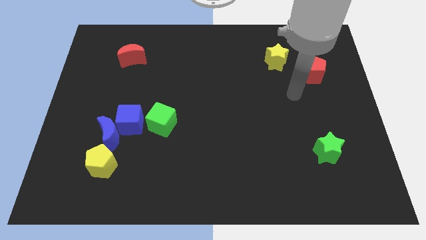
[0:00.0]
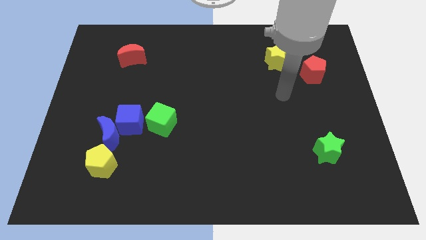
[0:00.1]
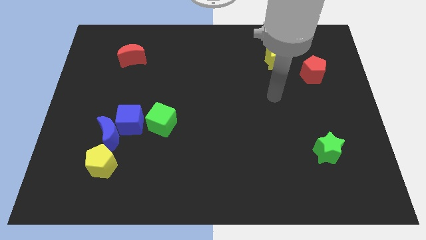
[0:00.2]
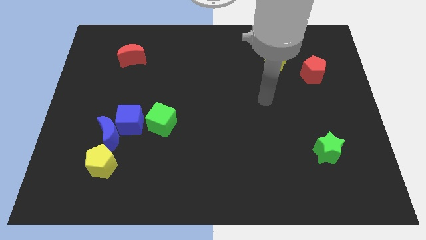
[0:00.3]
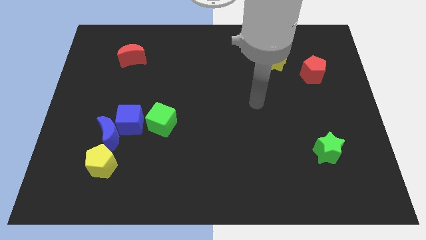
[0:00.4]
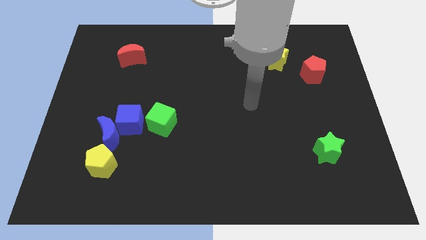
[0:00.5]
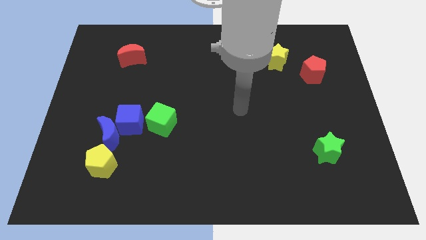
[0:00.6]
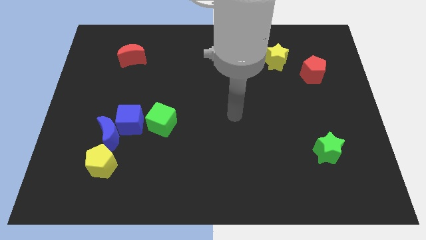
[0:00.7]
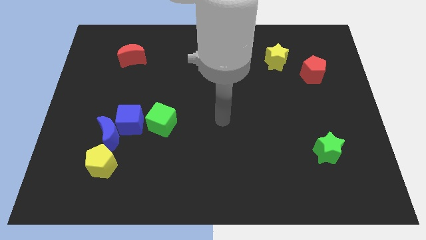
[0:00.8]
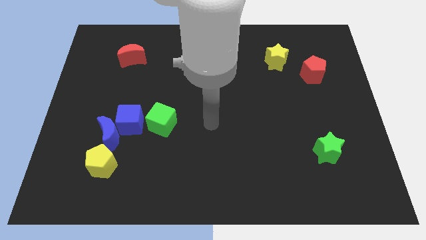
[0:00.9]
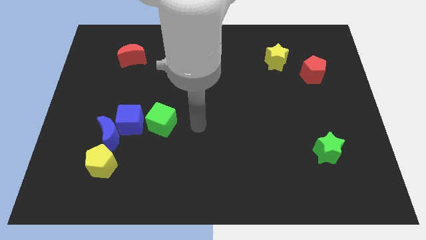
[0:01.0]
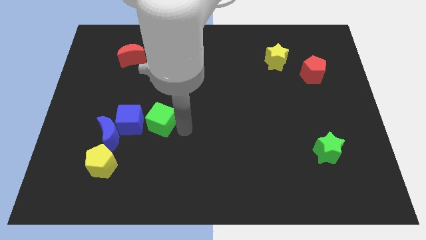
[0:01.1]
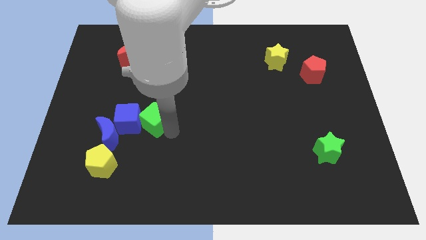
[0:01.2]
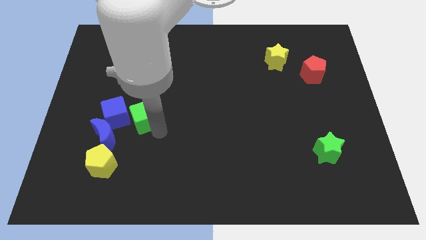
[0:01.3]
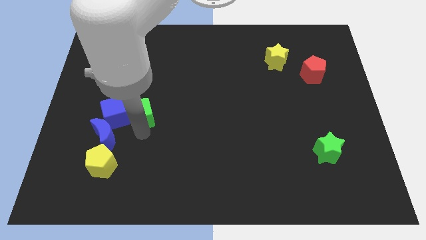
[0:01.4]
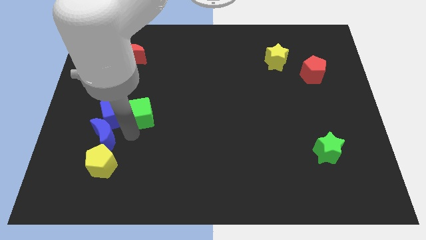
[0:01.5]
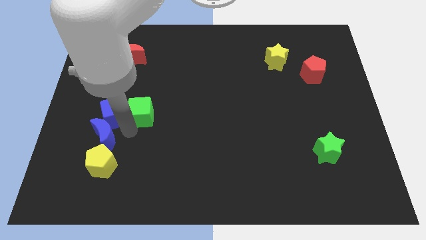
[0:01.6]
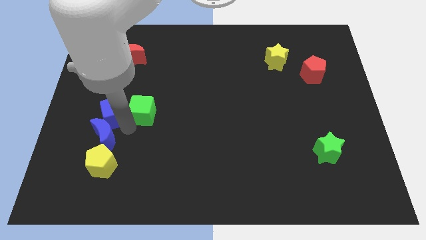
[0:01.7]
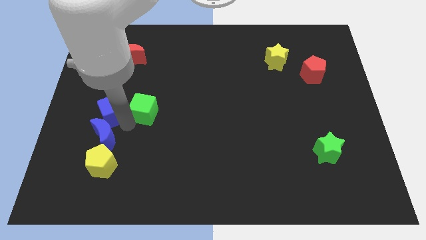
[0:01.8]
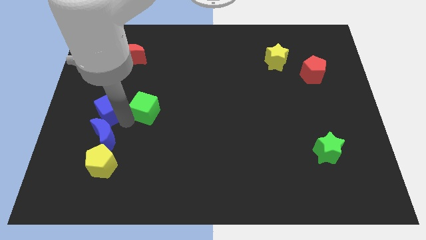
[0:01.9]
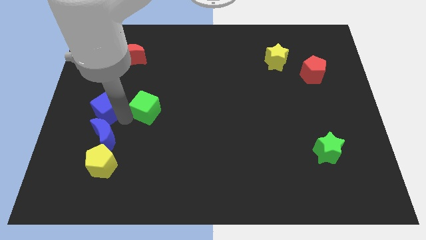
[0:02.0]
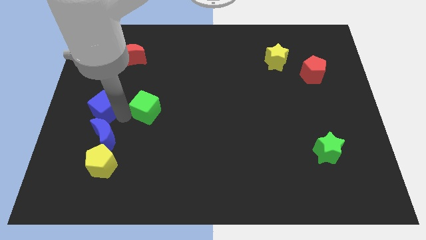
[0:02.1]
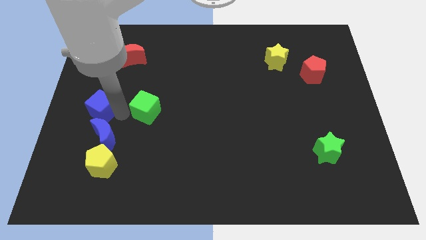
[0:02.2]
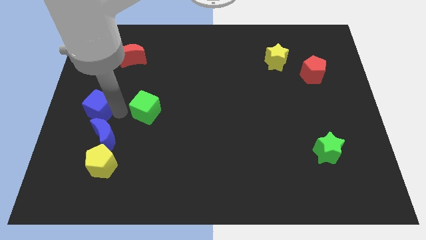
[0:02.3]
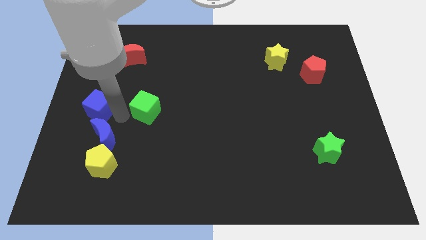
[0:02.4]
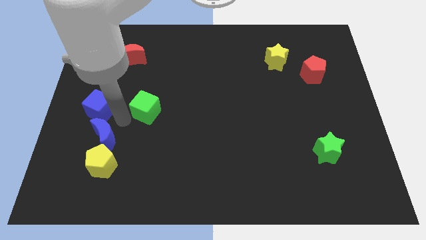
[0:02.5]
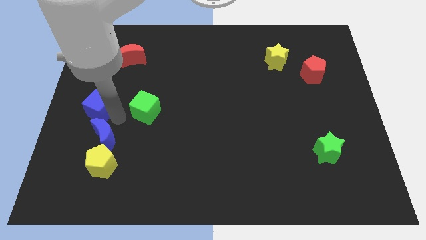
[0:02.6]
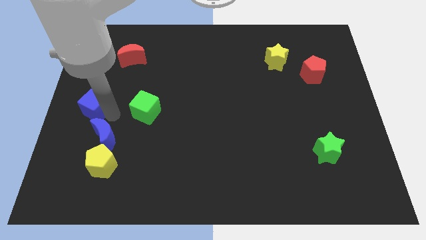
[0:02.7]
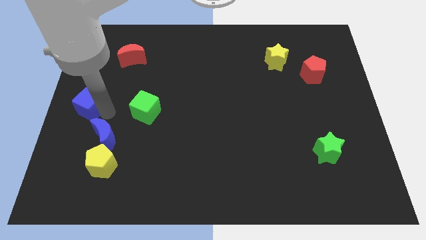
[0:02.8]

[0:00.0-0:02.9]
pull the blue cube apart from the blue moon and green cube

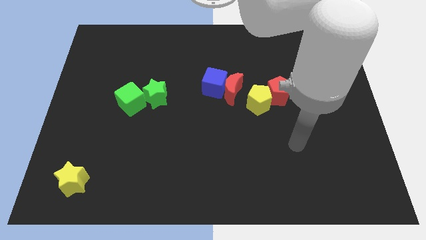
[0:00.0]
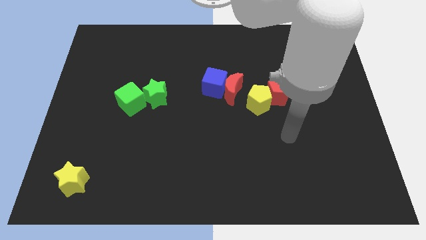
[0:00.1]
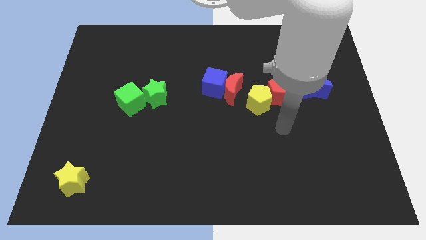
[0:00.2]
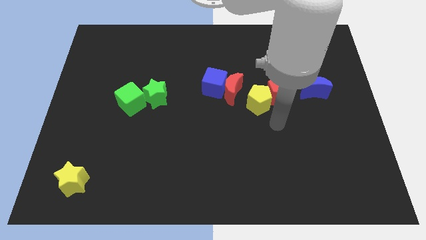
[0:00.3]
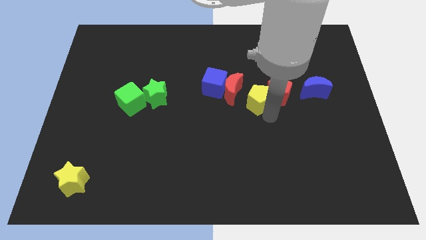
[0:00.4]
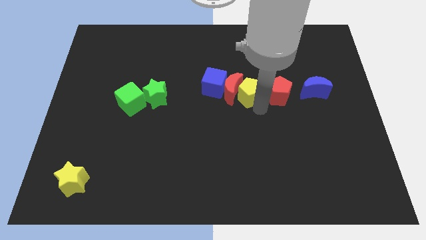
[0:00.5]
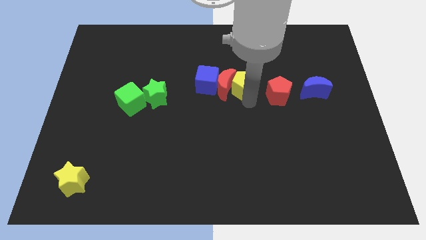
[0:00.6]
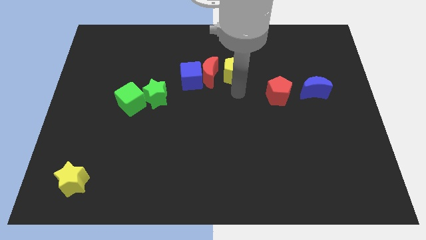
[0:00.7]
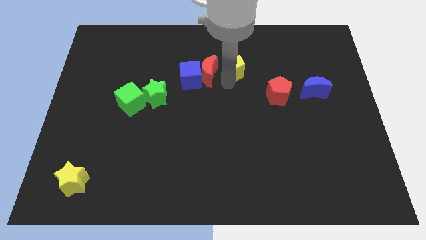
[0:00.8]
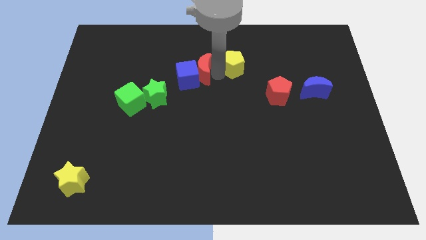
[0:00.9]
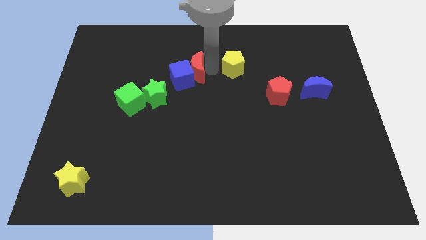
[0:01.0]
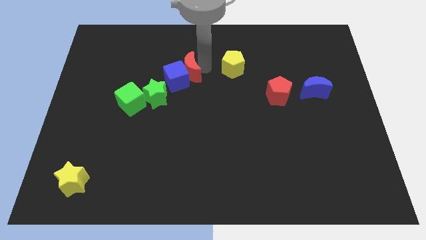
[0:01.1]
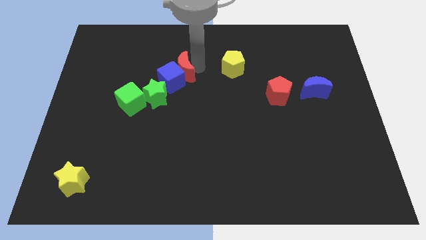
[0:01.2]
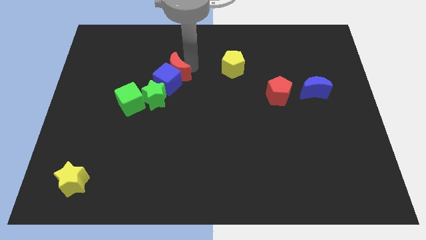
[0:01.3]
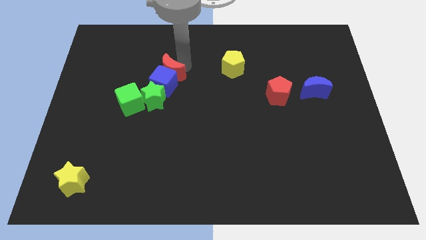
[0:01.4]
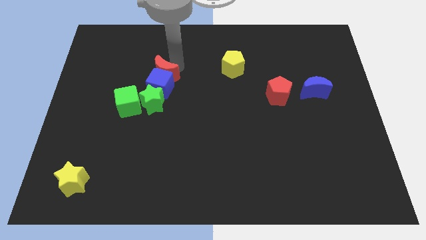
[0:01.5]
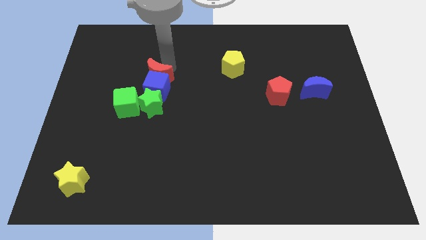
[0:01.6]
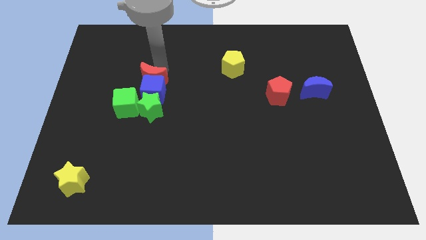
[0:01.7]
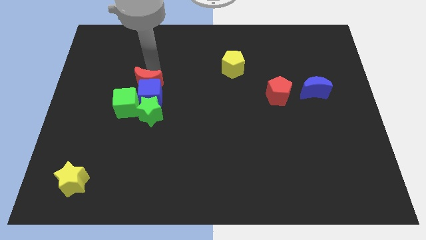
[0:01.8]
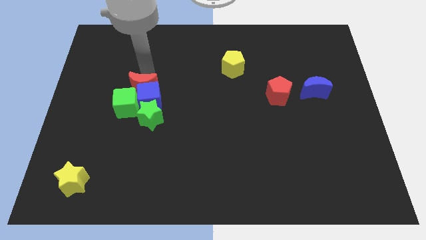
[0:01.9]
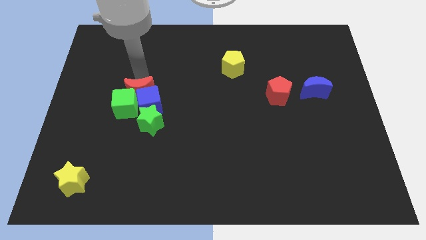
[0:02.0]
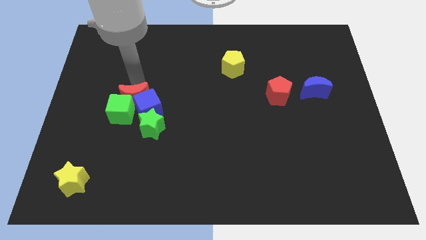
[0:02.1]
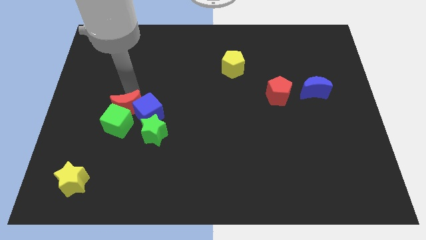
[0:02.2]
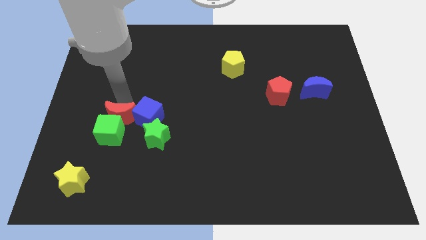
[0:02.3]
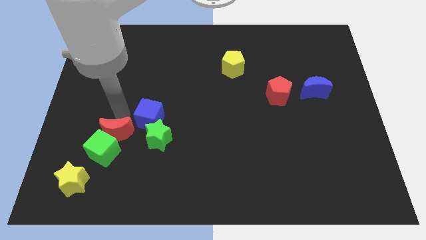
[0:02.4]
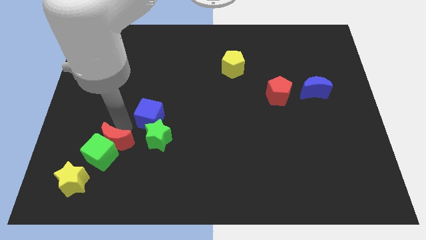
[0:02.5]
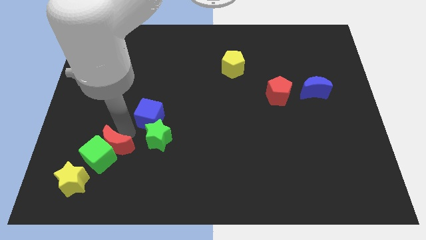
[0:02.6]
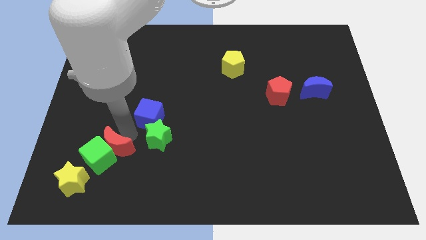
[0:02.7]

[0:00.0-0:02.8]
move the blue cube away from the red moon

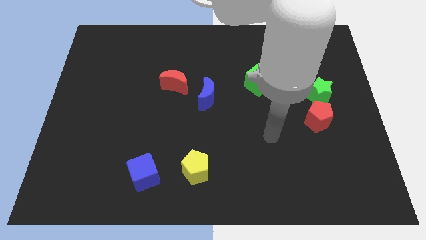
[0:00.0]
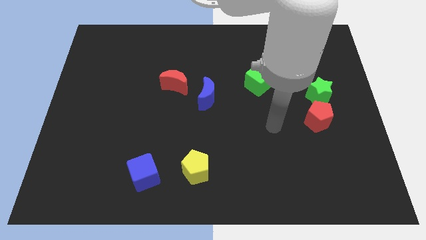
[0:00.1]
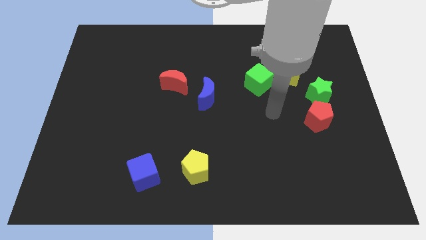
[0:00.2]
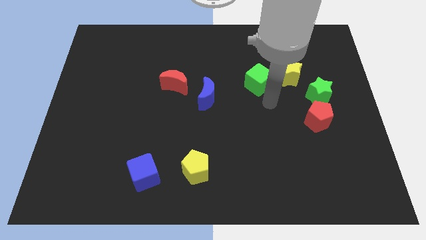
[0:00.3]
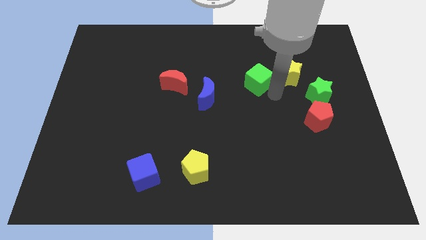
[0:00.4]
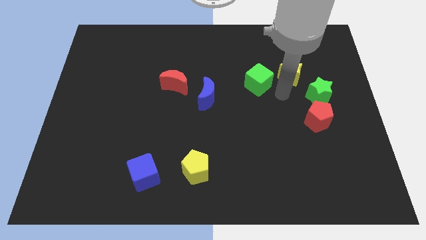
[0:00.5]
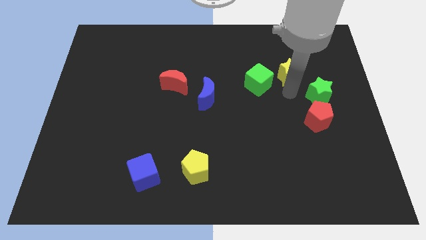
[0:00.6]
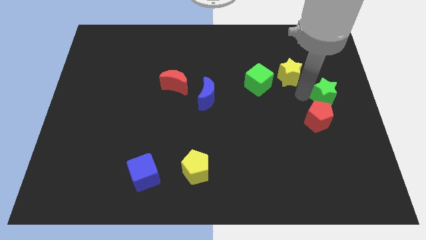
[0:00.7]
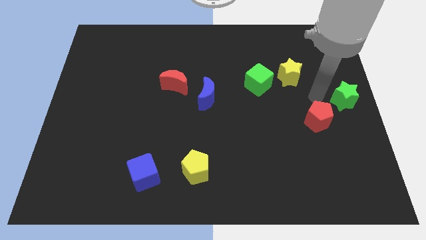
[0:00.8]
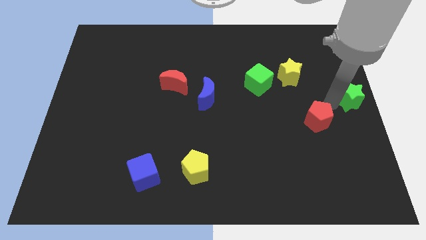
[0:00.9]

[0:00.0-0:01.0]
separate the red pentagon from the green star

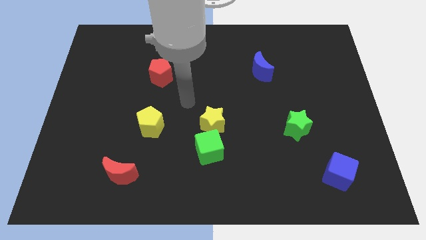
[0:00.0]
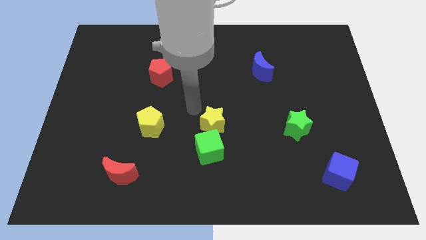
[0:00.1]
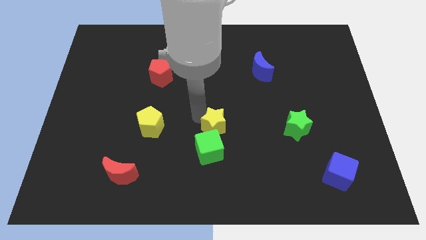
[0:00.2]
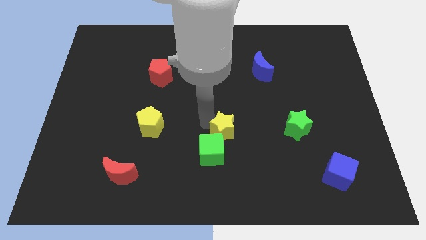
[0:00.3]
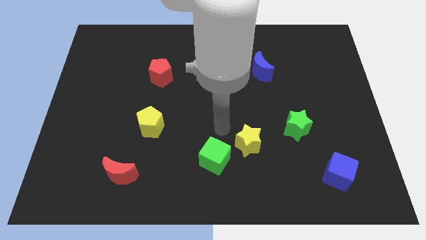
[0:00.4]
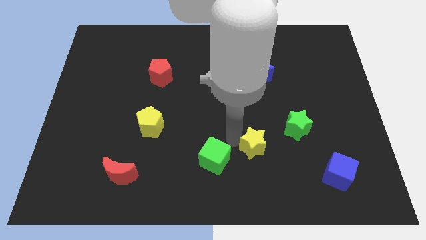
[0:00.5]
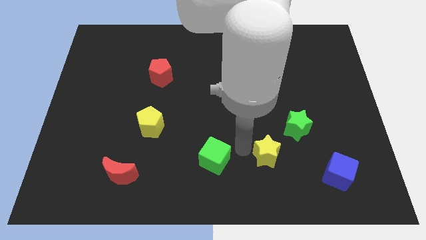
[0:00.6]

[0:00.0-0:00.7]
pull the green cube apart from the yellow star

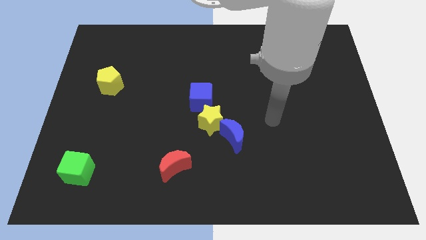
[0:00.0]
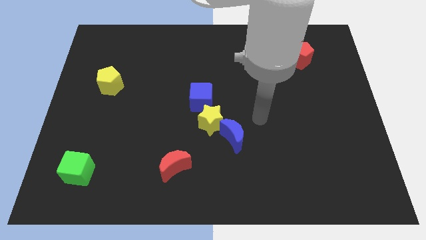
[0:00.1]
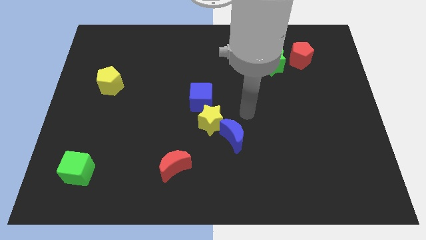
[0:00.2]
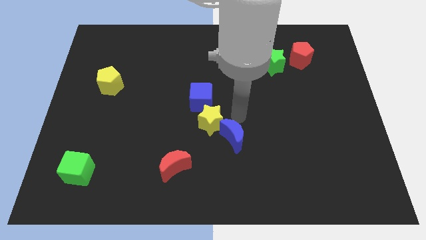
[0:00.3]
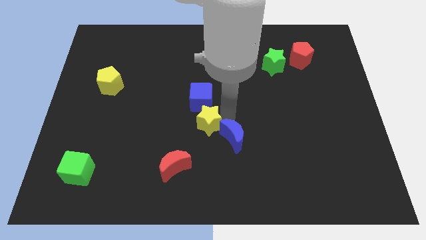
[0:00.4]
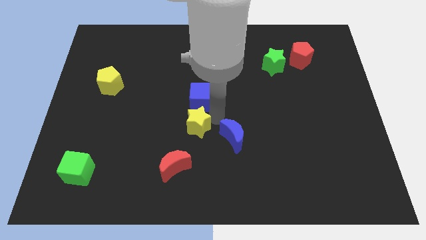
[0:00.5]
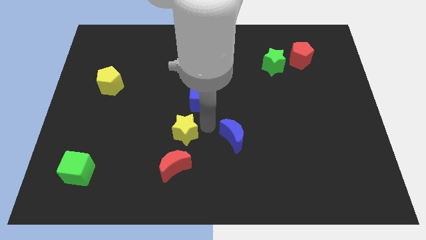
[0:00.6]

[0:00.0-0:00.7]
separate the blue moon from the yellow star

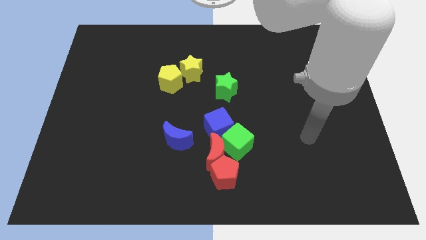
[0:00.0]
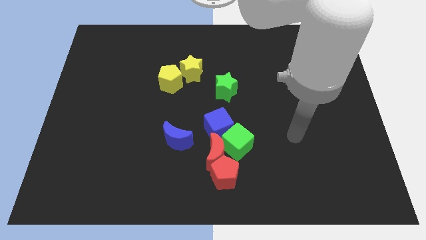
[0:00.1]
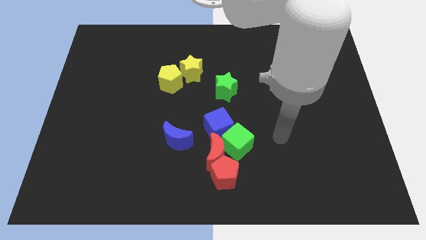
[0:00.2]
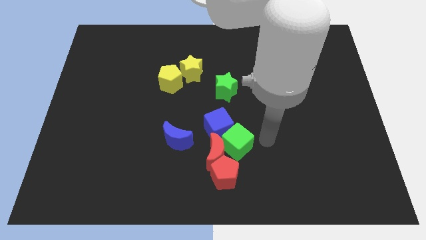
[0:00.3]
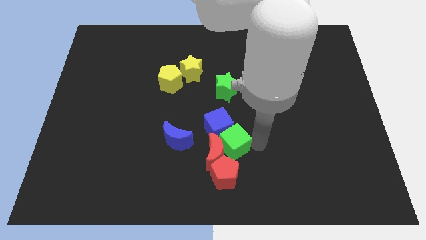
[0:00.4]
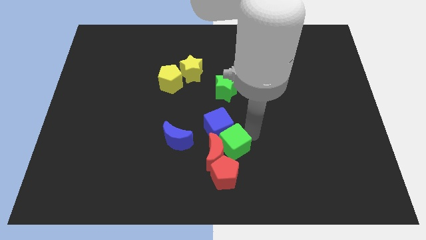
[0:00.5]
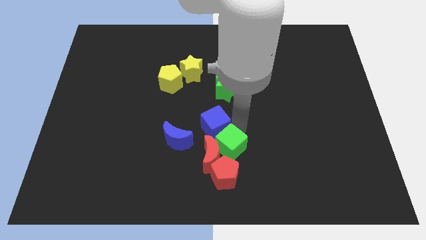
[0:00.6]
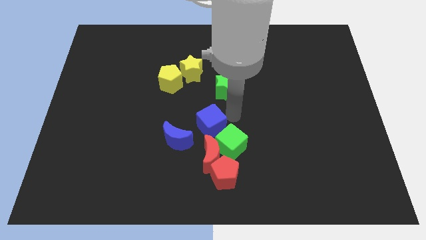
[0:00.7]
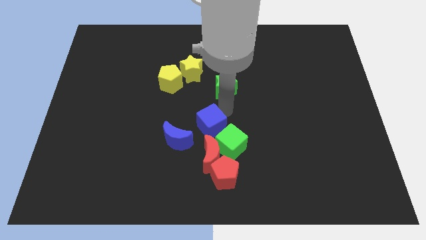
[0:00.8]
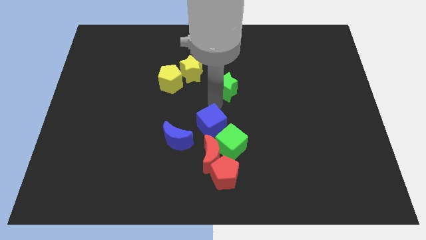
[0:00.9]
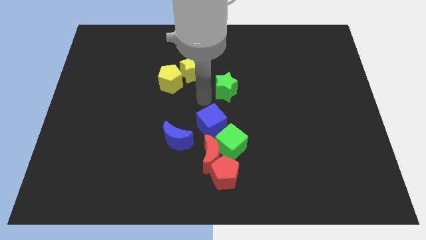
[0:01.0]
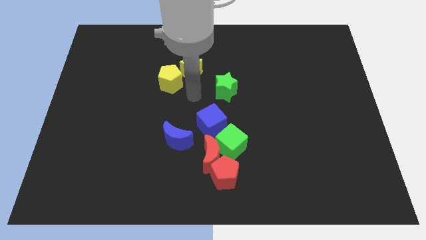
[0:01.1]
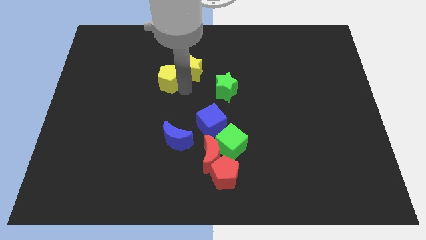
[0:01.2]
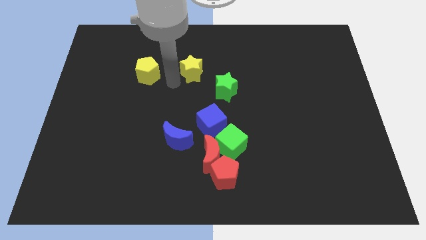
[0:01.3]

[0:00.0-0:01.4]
pull the yellow star apart from the yellow pentagon
